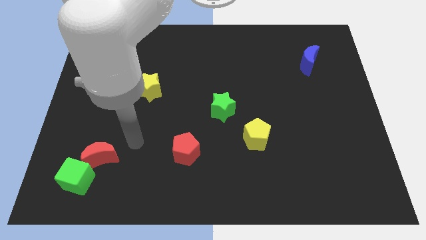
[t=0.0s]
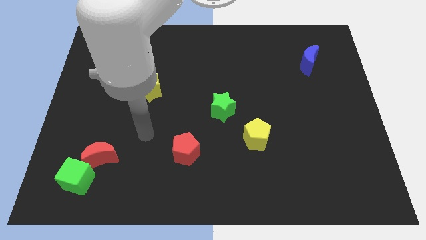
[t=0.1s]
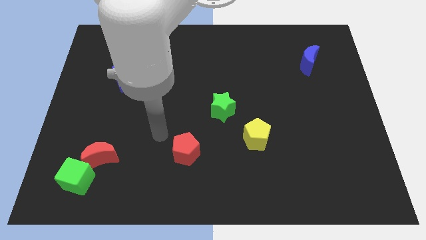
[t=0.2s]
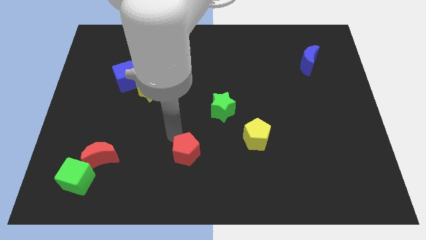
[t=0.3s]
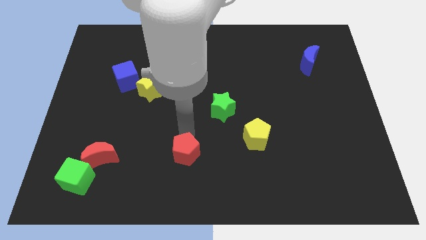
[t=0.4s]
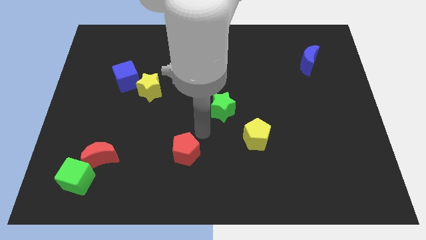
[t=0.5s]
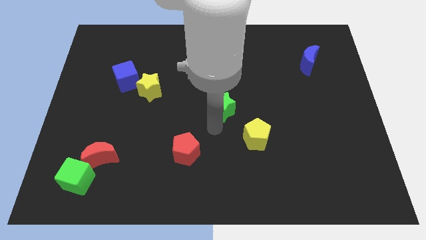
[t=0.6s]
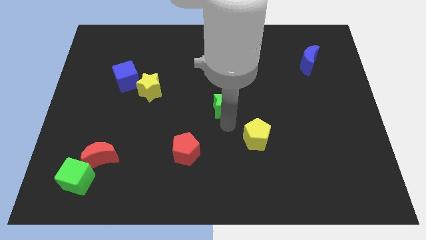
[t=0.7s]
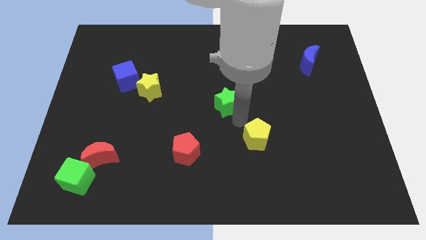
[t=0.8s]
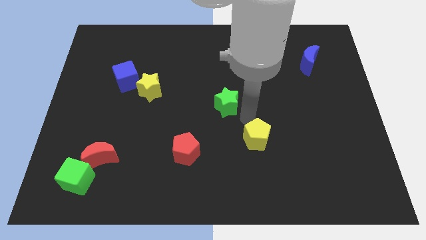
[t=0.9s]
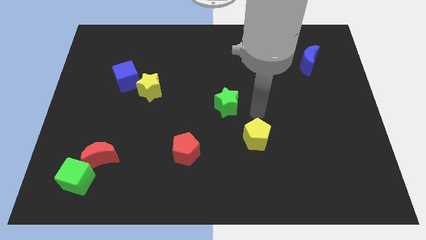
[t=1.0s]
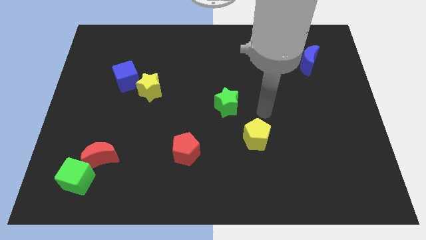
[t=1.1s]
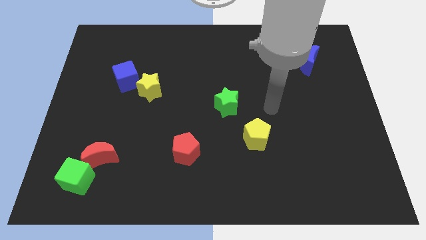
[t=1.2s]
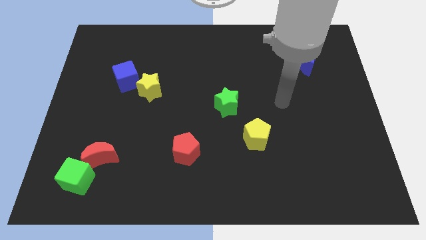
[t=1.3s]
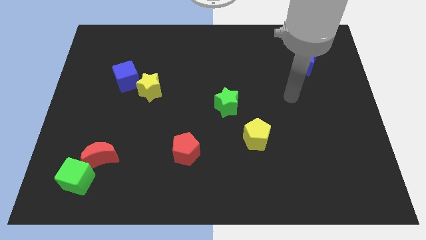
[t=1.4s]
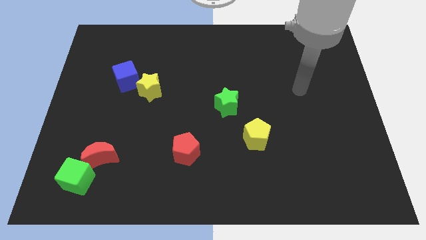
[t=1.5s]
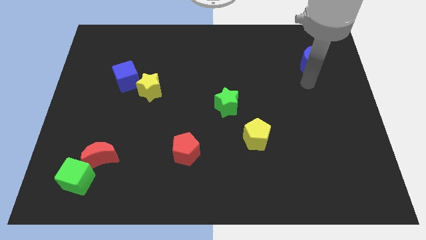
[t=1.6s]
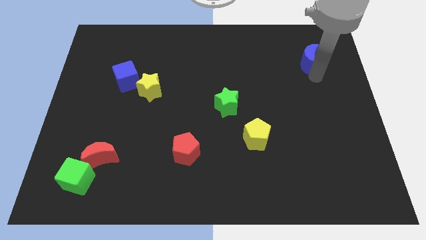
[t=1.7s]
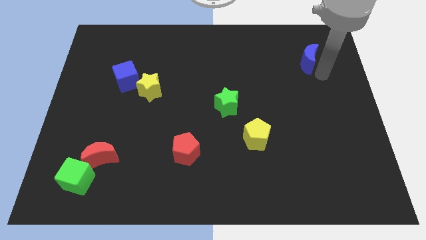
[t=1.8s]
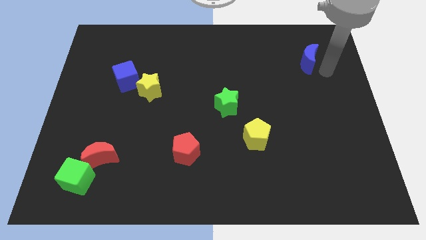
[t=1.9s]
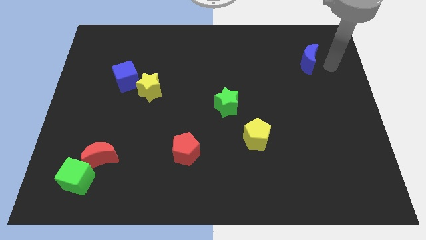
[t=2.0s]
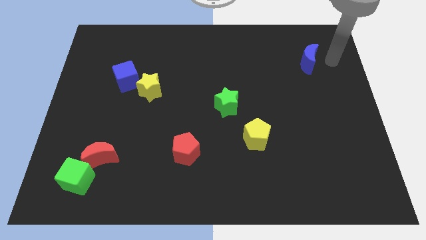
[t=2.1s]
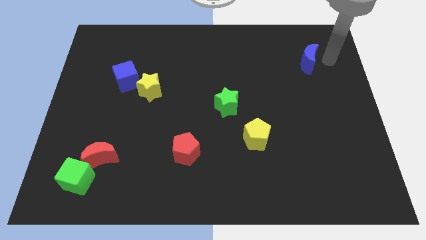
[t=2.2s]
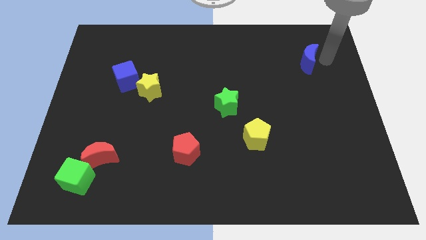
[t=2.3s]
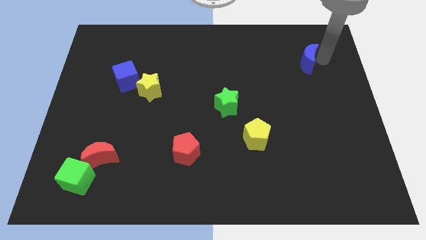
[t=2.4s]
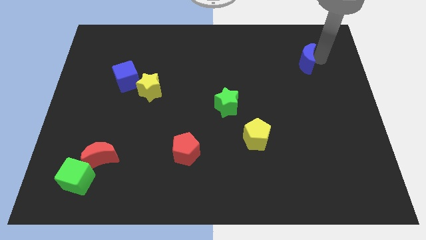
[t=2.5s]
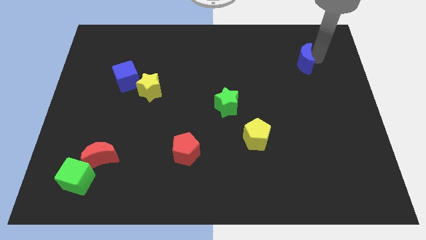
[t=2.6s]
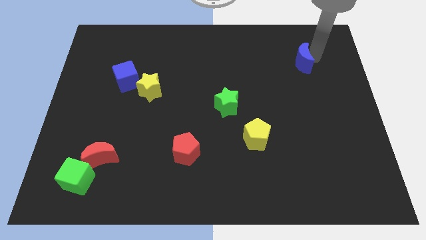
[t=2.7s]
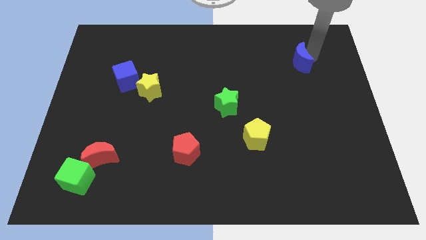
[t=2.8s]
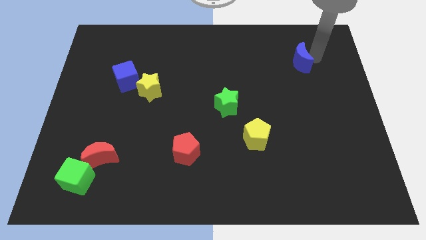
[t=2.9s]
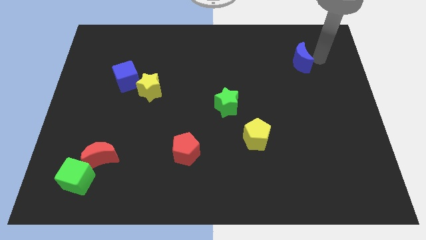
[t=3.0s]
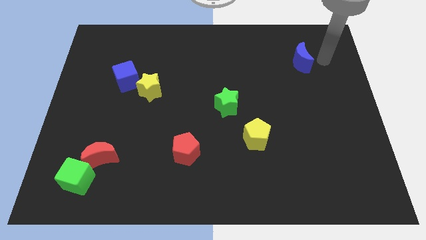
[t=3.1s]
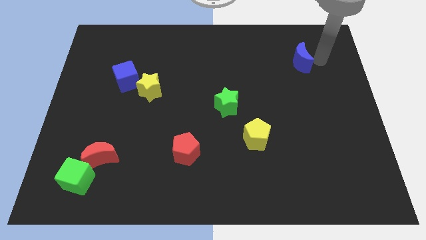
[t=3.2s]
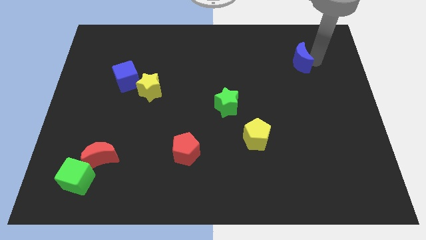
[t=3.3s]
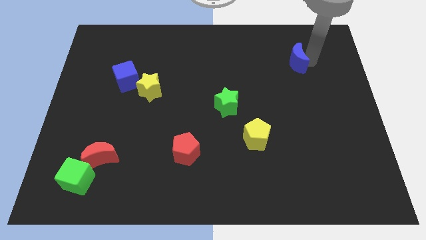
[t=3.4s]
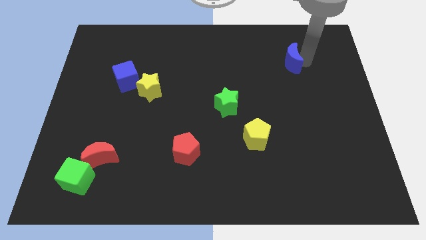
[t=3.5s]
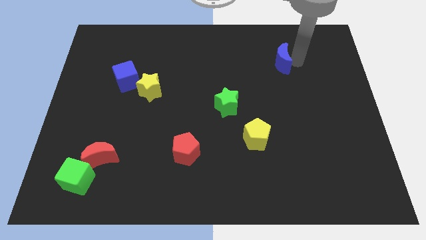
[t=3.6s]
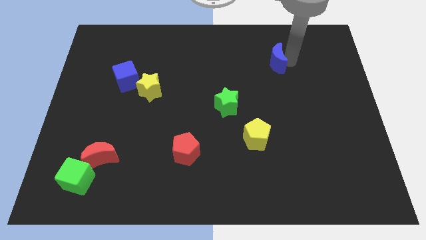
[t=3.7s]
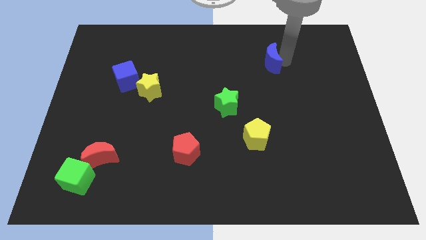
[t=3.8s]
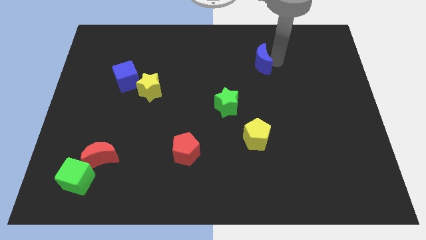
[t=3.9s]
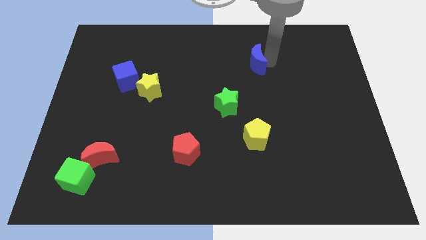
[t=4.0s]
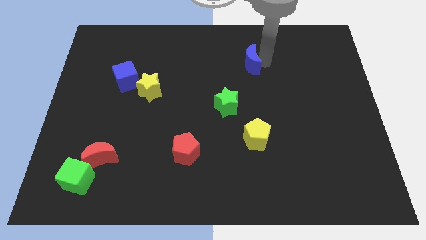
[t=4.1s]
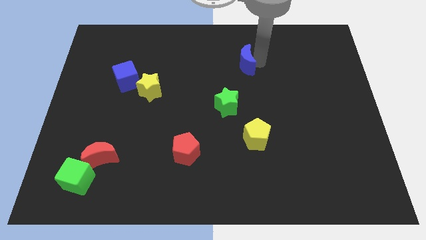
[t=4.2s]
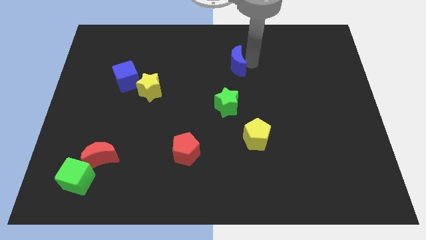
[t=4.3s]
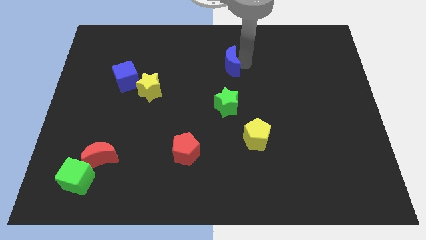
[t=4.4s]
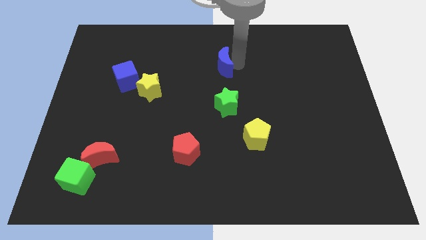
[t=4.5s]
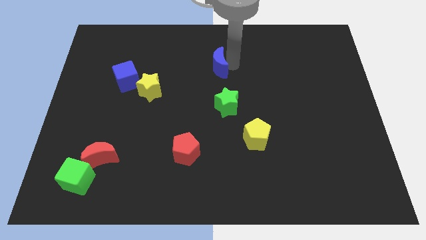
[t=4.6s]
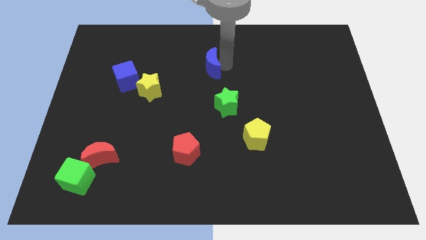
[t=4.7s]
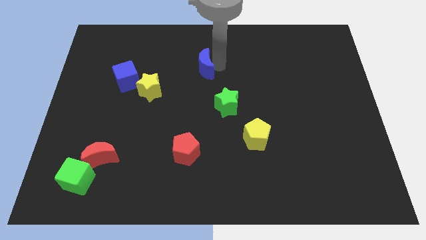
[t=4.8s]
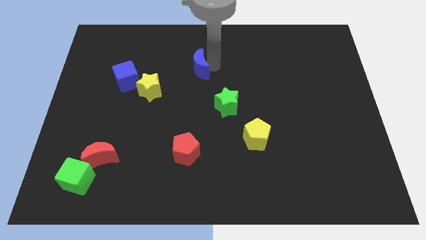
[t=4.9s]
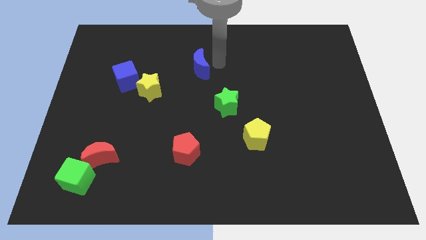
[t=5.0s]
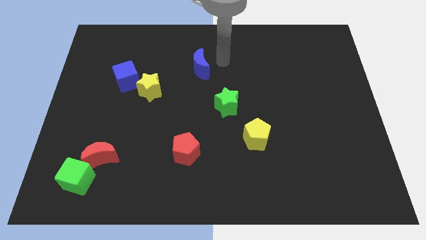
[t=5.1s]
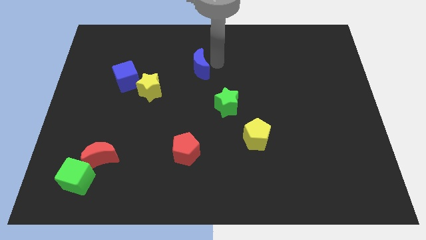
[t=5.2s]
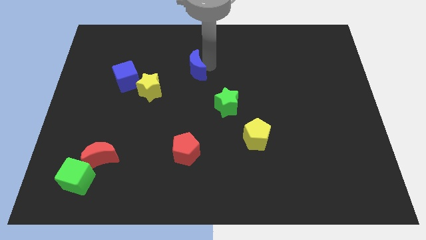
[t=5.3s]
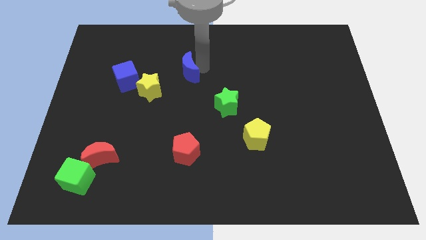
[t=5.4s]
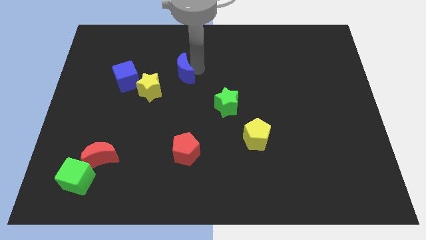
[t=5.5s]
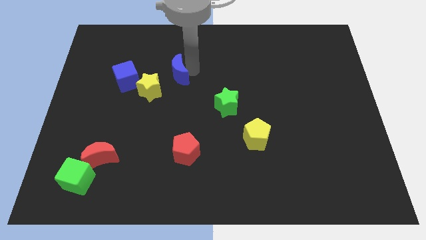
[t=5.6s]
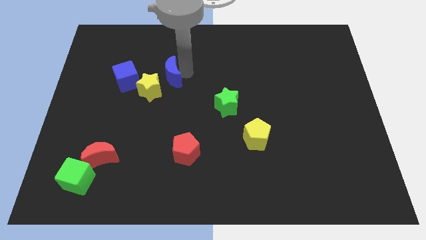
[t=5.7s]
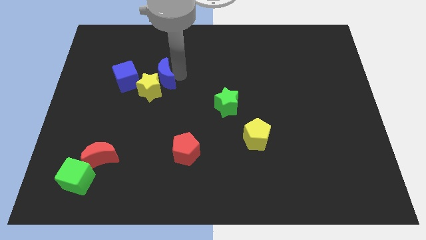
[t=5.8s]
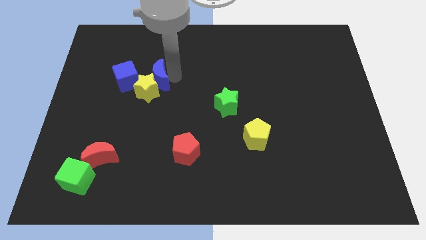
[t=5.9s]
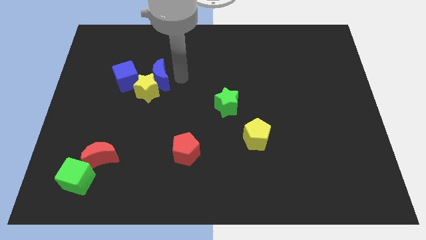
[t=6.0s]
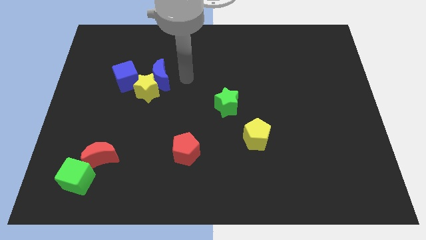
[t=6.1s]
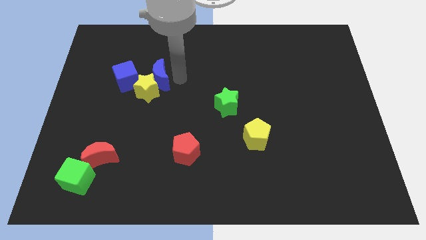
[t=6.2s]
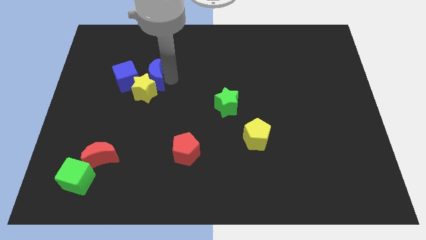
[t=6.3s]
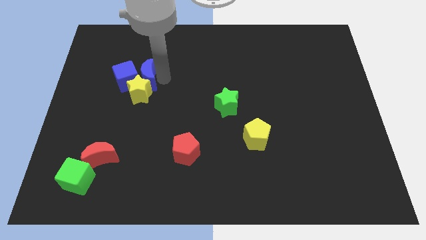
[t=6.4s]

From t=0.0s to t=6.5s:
move the blue moon towards the blue cube
